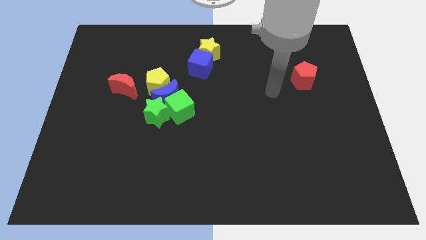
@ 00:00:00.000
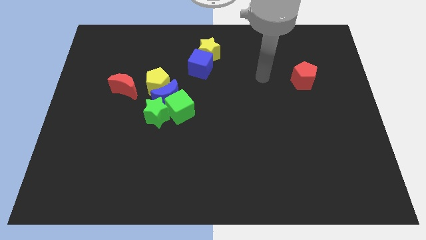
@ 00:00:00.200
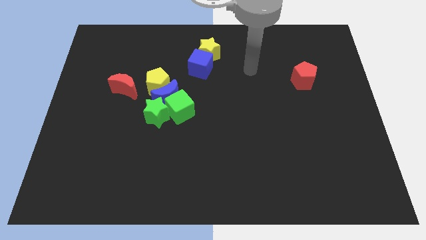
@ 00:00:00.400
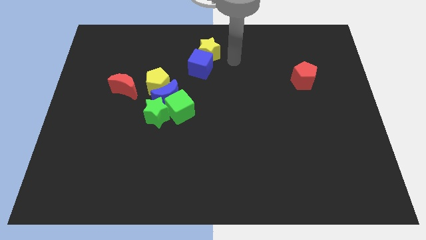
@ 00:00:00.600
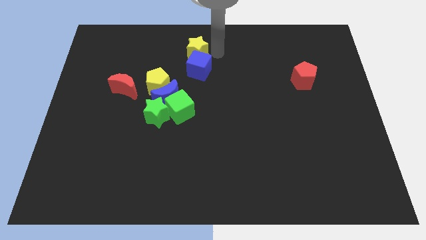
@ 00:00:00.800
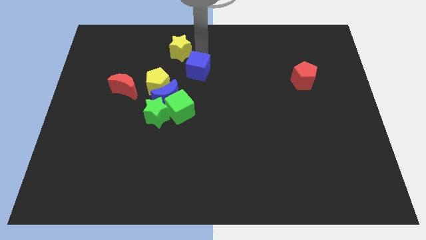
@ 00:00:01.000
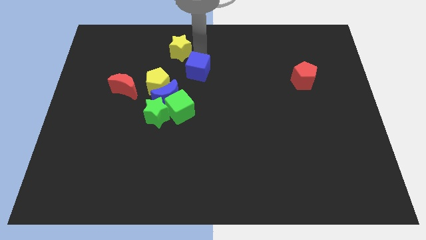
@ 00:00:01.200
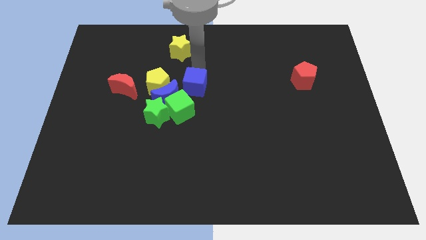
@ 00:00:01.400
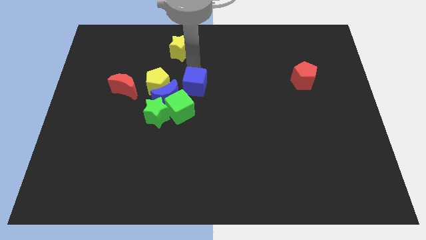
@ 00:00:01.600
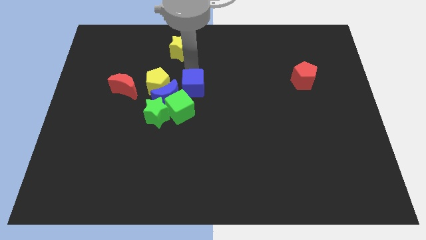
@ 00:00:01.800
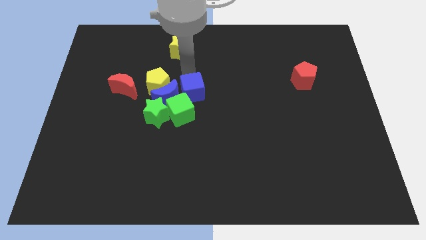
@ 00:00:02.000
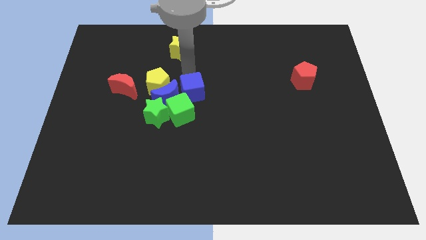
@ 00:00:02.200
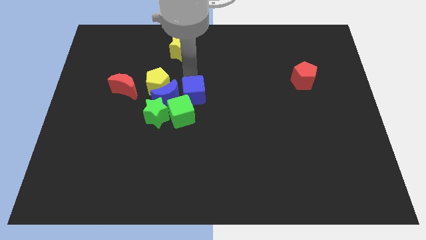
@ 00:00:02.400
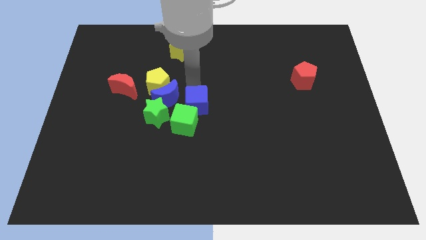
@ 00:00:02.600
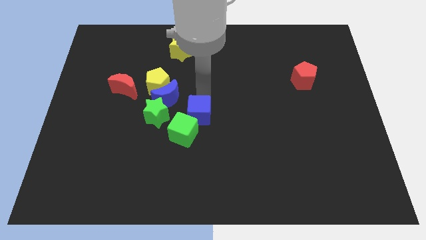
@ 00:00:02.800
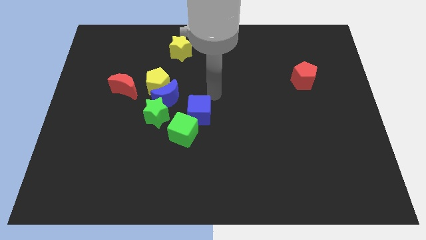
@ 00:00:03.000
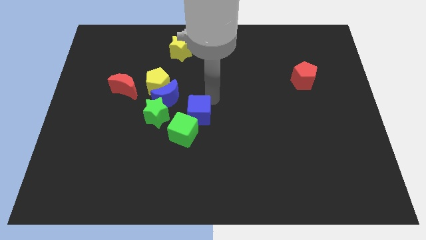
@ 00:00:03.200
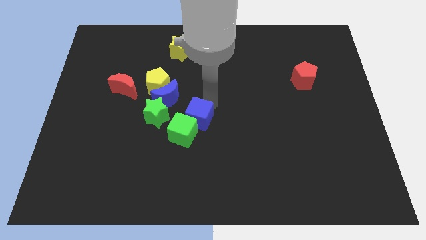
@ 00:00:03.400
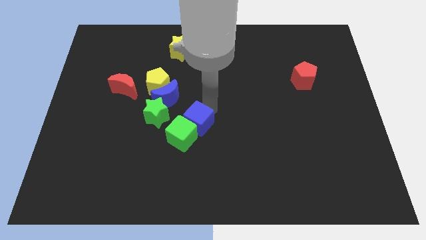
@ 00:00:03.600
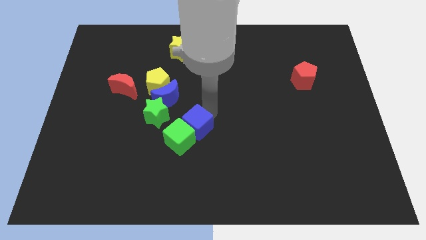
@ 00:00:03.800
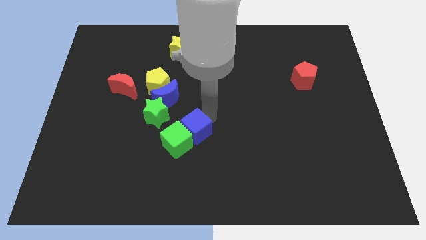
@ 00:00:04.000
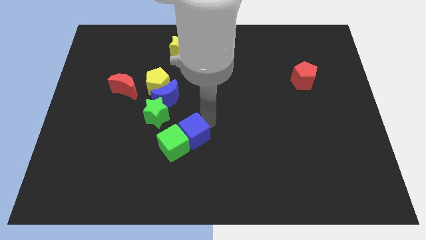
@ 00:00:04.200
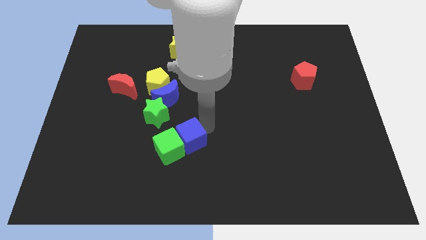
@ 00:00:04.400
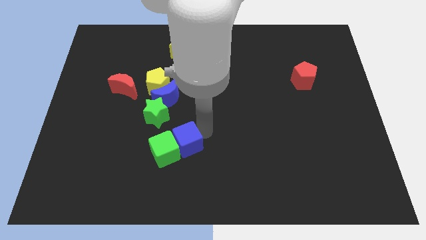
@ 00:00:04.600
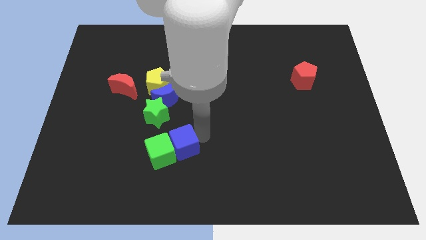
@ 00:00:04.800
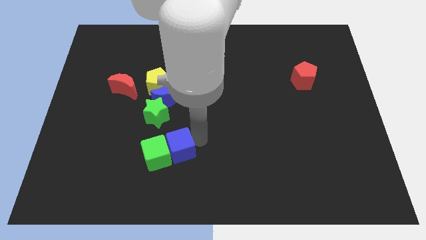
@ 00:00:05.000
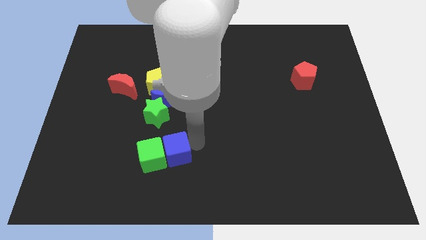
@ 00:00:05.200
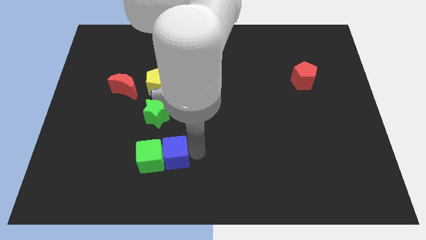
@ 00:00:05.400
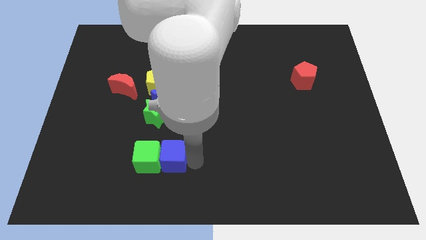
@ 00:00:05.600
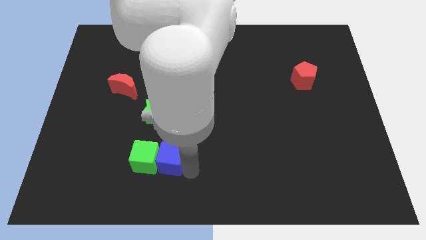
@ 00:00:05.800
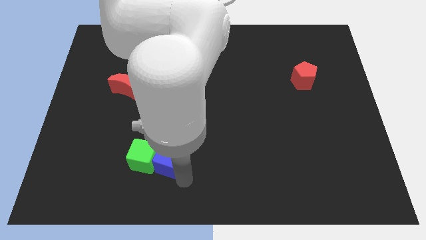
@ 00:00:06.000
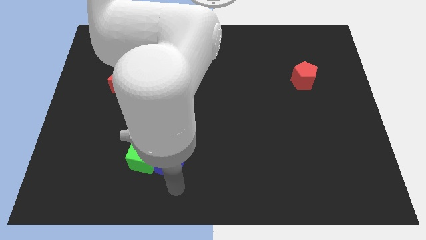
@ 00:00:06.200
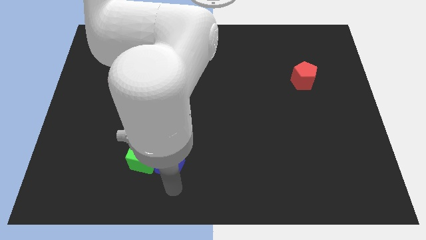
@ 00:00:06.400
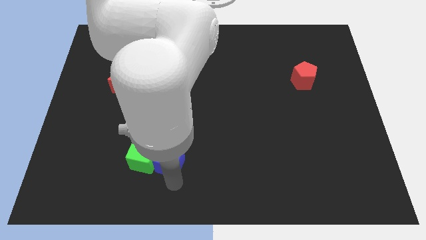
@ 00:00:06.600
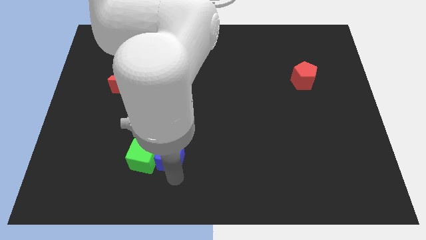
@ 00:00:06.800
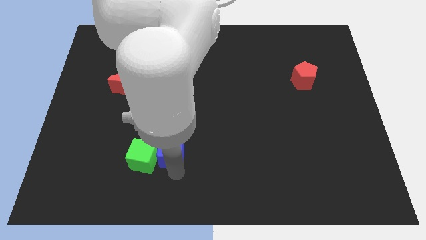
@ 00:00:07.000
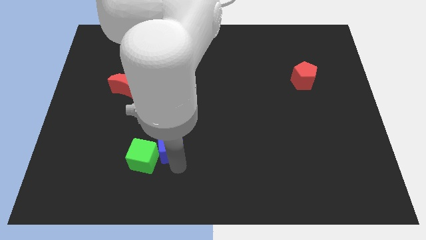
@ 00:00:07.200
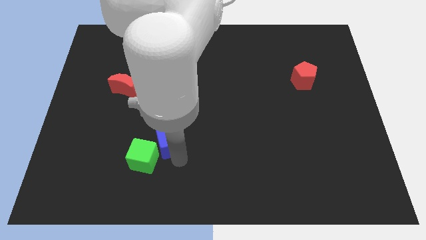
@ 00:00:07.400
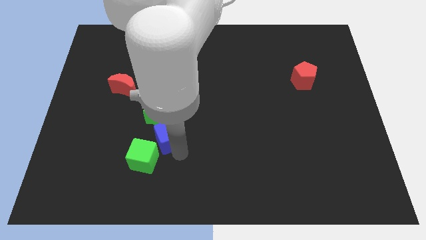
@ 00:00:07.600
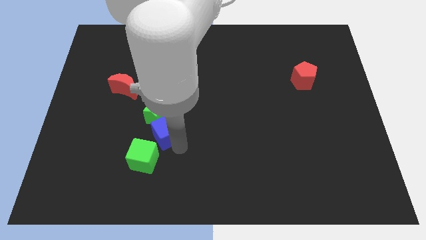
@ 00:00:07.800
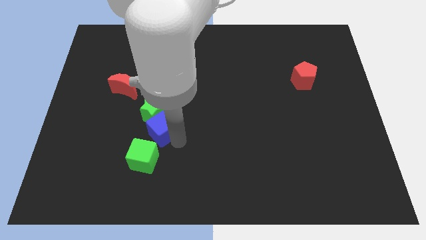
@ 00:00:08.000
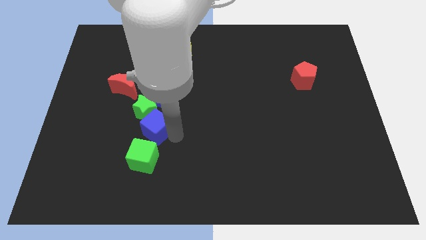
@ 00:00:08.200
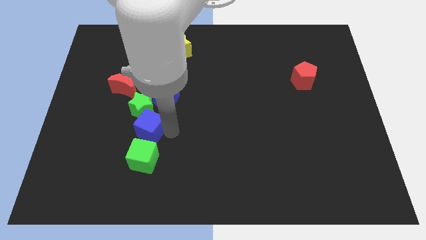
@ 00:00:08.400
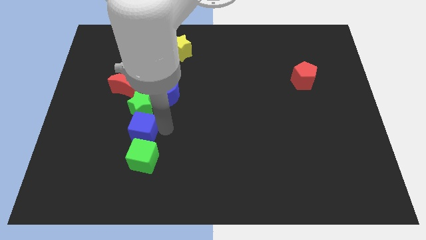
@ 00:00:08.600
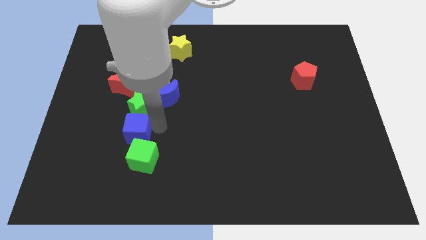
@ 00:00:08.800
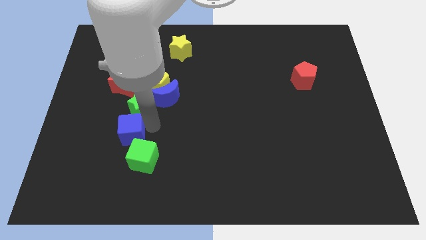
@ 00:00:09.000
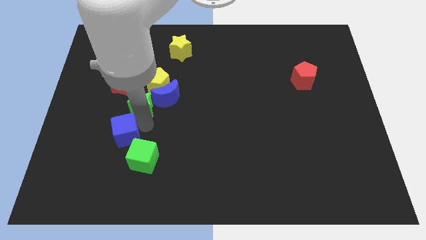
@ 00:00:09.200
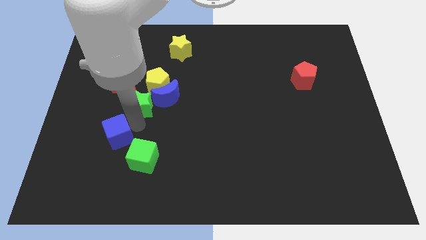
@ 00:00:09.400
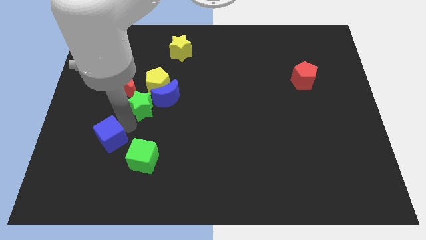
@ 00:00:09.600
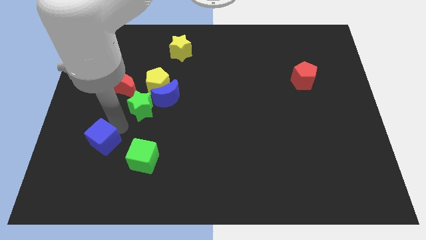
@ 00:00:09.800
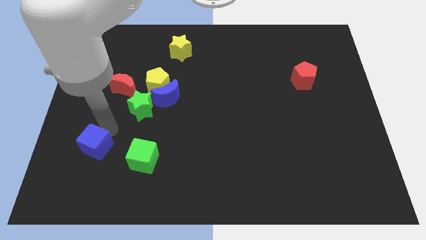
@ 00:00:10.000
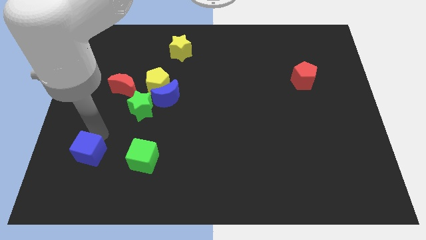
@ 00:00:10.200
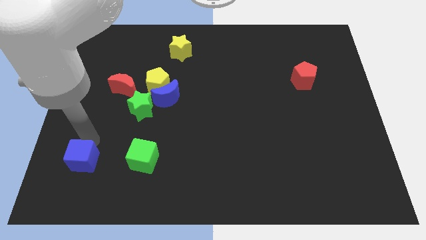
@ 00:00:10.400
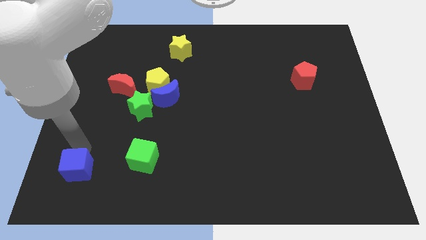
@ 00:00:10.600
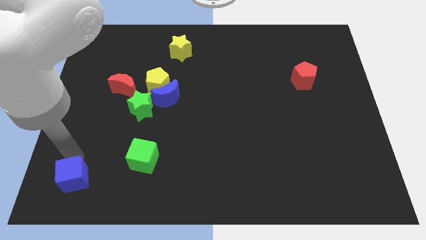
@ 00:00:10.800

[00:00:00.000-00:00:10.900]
move the blue cube to the bottom left corner
